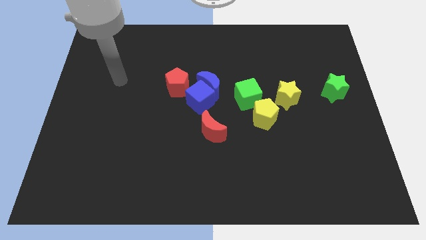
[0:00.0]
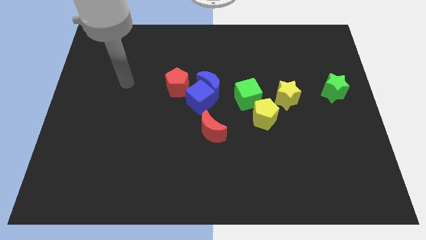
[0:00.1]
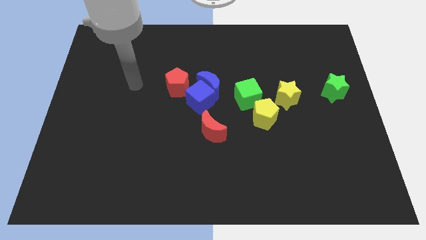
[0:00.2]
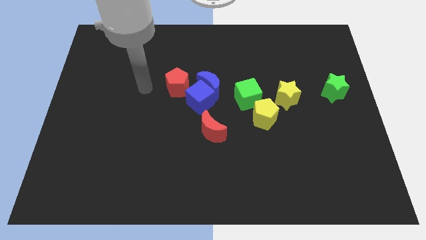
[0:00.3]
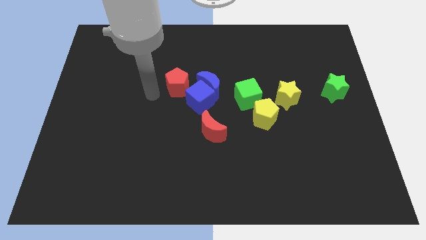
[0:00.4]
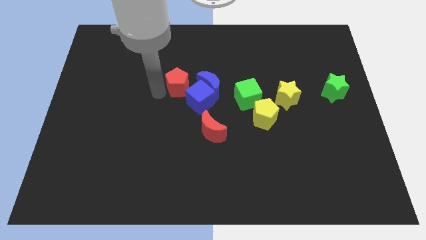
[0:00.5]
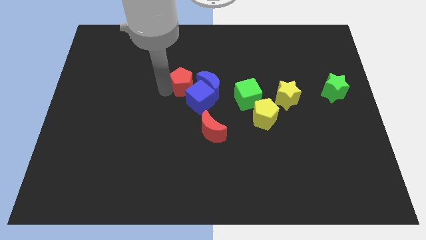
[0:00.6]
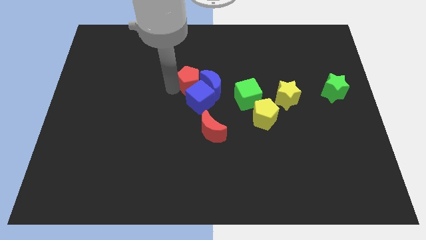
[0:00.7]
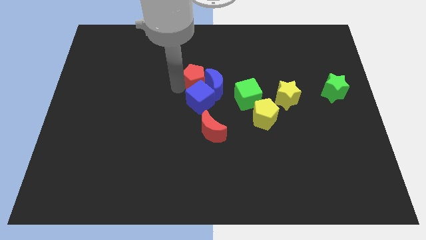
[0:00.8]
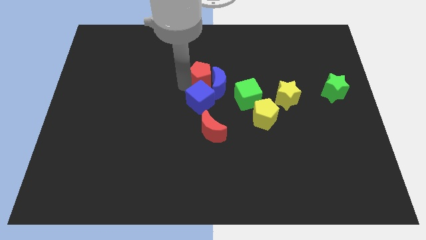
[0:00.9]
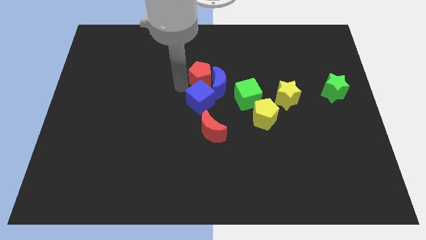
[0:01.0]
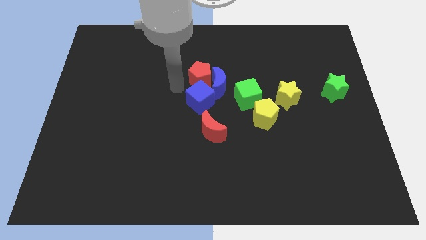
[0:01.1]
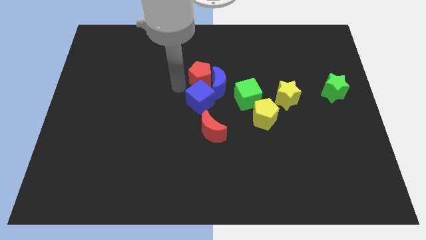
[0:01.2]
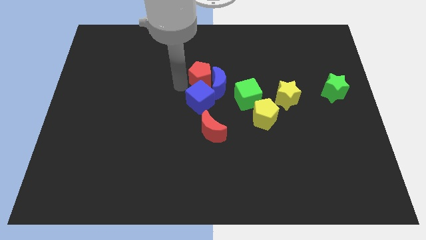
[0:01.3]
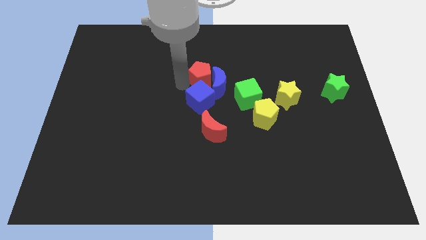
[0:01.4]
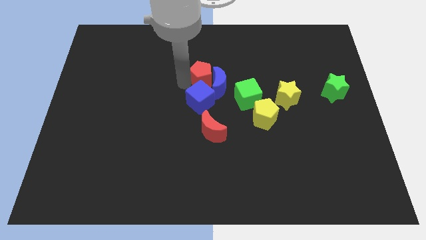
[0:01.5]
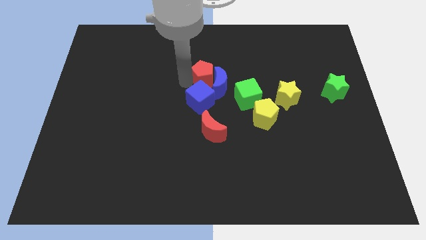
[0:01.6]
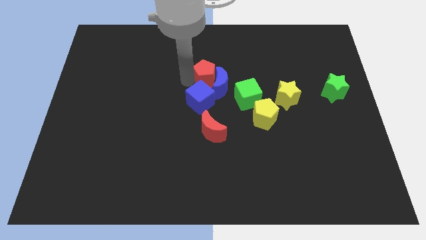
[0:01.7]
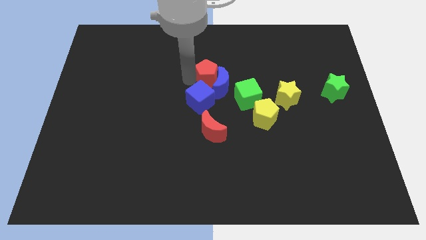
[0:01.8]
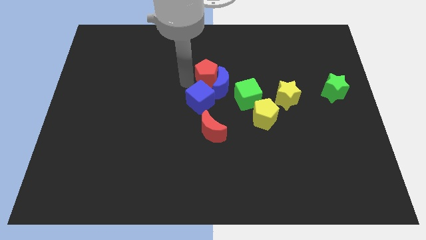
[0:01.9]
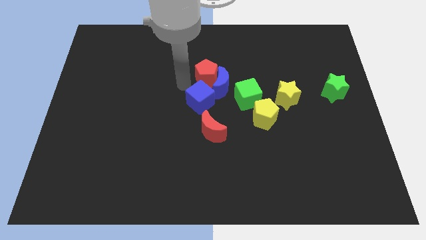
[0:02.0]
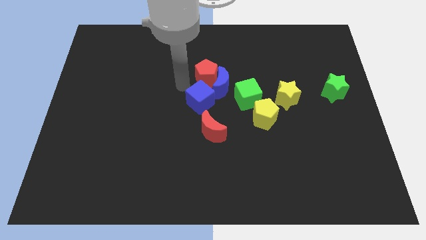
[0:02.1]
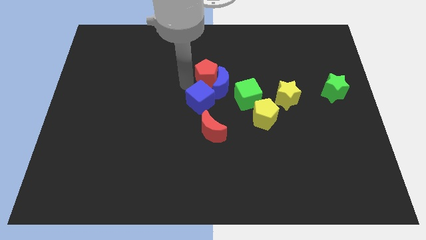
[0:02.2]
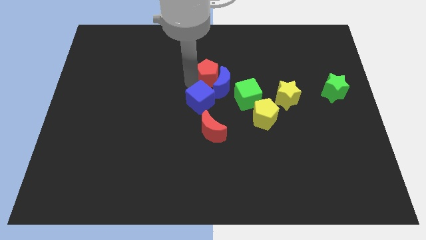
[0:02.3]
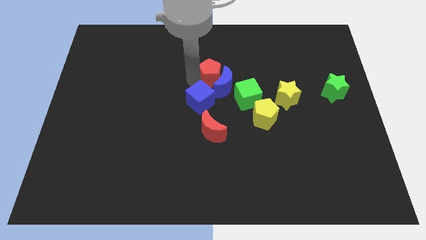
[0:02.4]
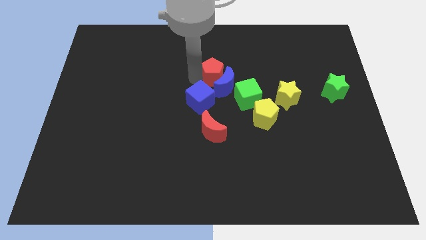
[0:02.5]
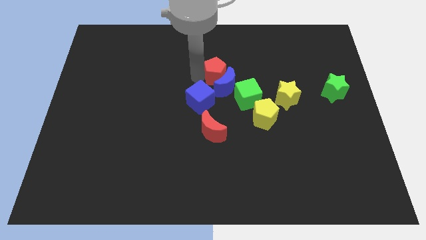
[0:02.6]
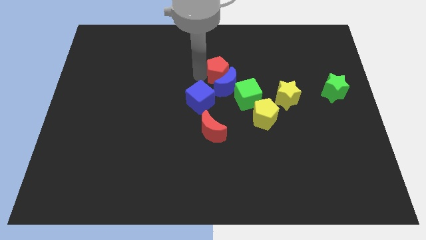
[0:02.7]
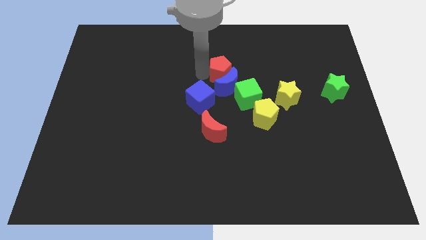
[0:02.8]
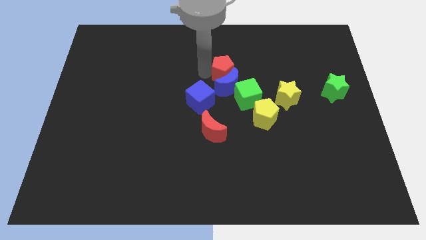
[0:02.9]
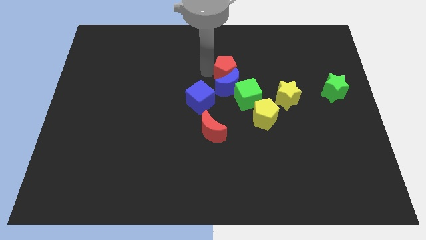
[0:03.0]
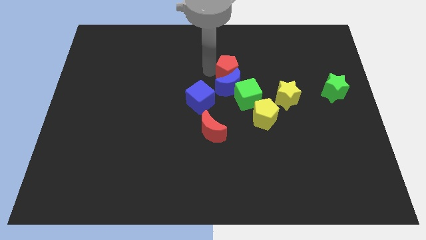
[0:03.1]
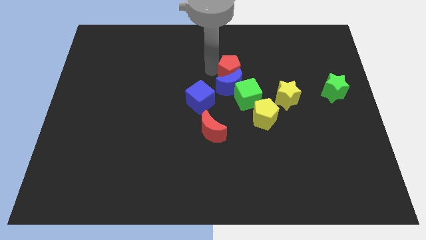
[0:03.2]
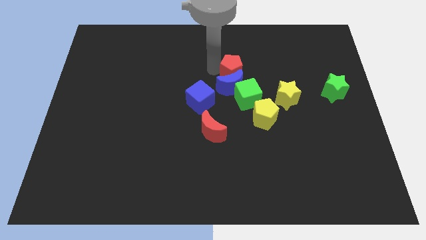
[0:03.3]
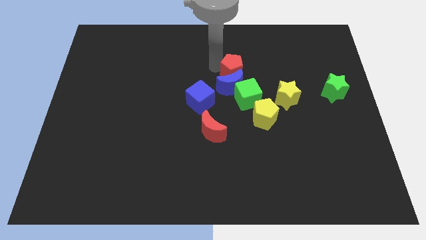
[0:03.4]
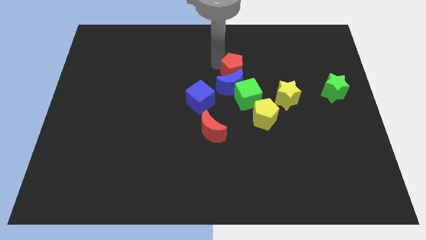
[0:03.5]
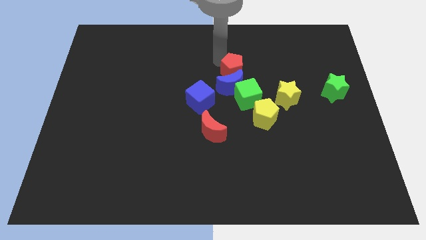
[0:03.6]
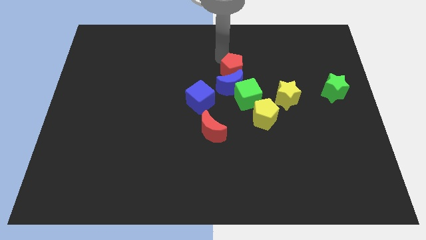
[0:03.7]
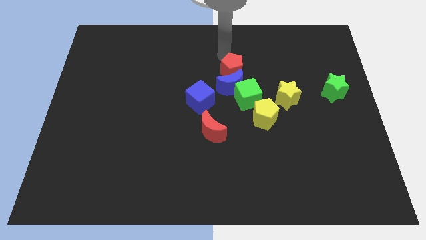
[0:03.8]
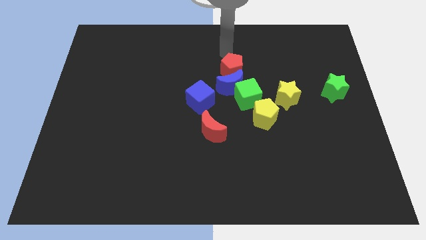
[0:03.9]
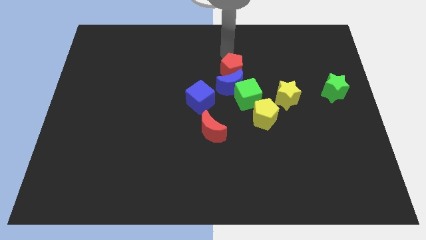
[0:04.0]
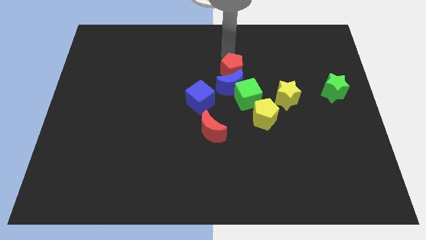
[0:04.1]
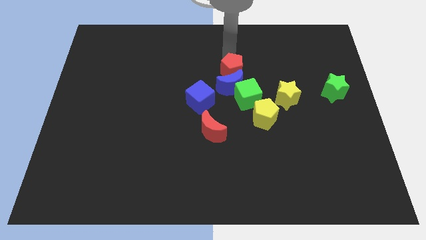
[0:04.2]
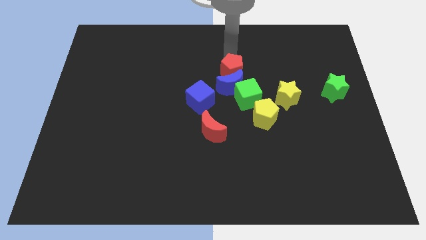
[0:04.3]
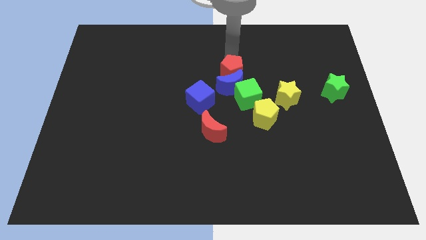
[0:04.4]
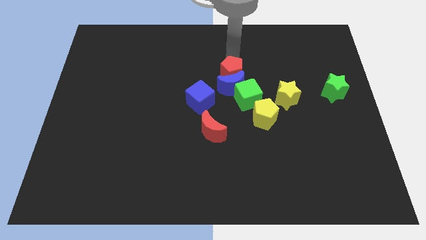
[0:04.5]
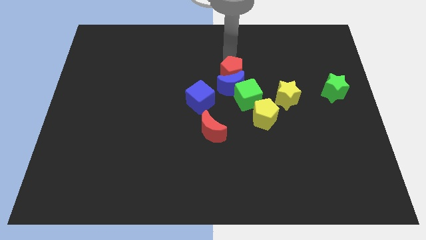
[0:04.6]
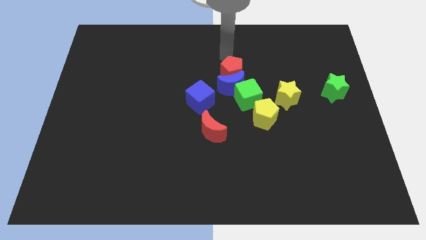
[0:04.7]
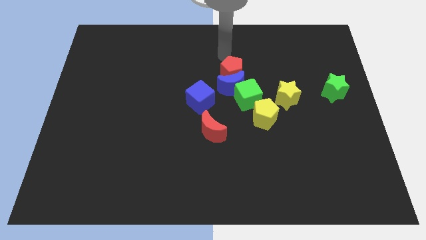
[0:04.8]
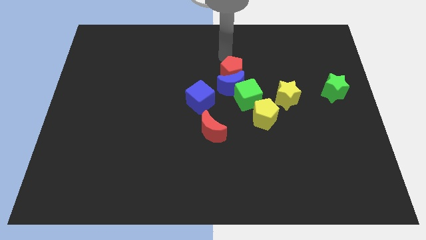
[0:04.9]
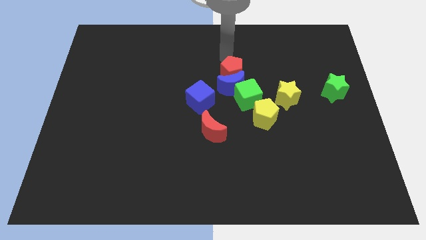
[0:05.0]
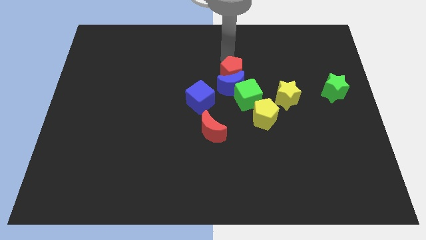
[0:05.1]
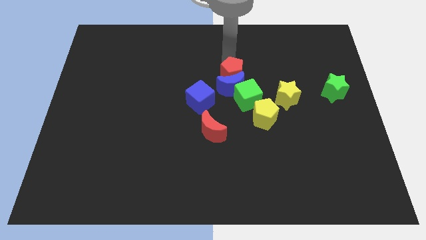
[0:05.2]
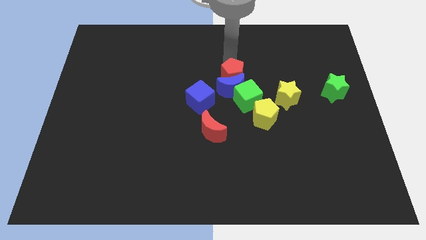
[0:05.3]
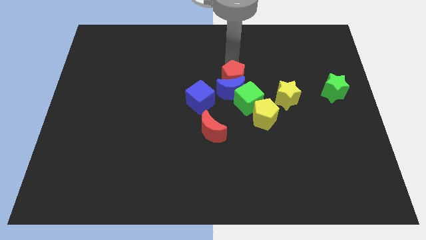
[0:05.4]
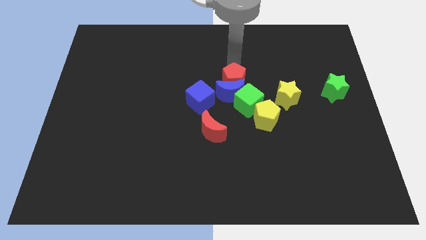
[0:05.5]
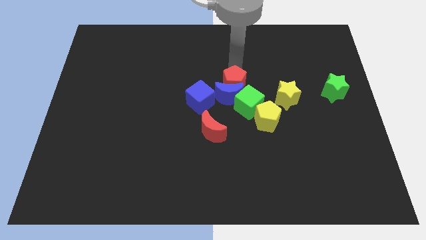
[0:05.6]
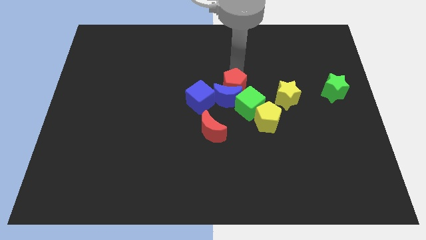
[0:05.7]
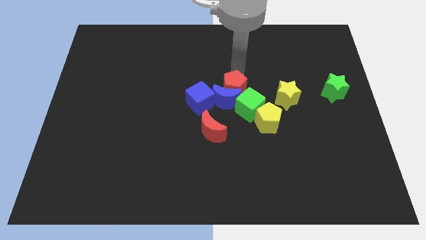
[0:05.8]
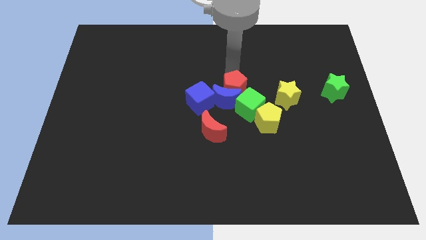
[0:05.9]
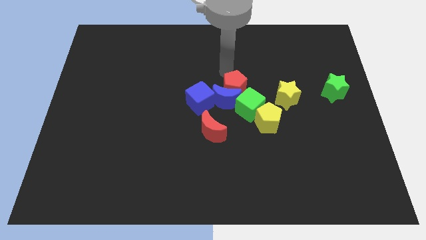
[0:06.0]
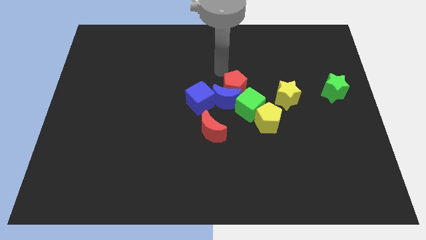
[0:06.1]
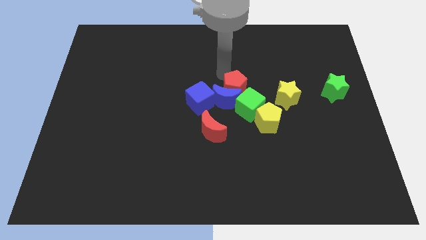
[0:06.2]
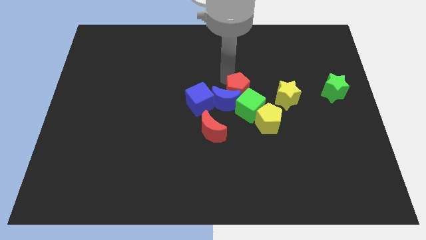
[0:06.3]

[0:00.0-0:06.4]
move the red pentagon towards the green cube

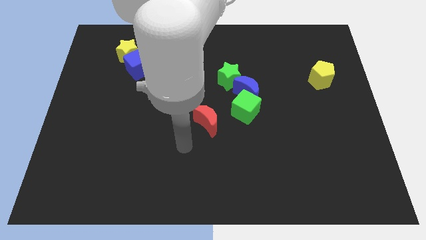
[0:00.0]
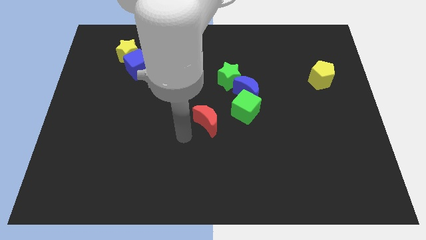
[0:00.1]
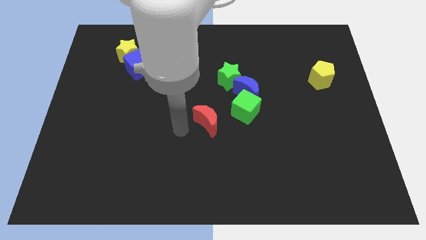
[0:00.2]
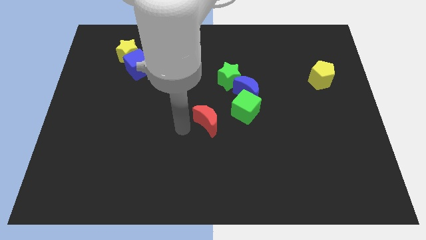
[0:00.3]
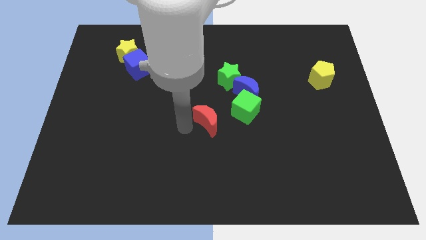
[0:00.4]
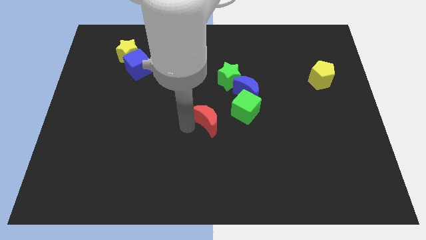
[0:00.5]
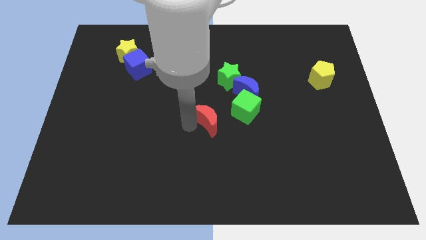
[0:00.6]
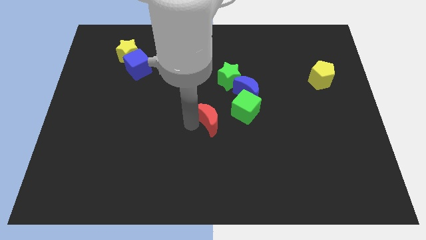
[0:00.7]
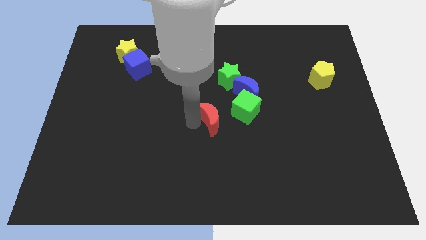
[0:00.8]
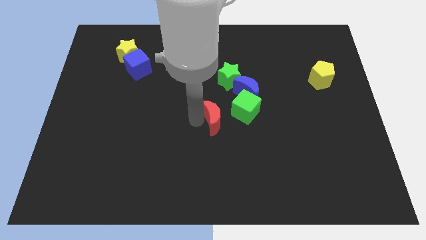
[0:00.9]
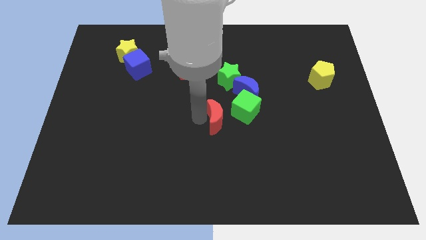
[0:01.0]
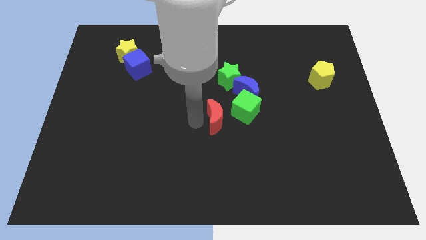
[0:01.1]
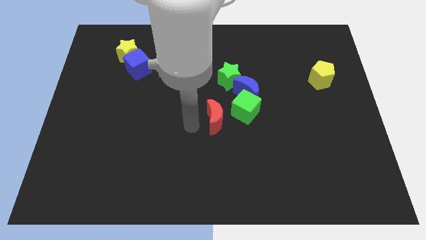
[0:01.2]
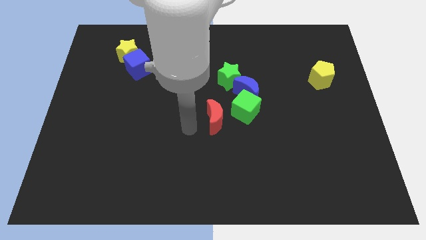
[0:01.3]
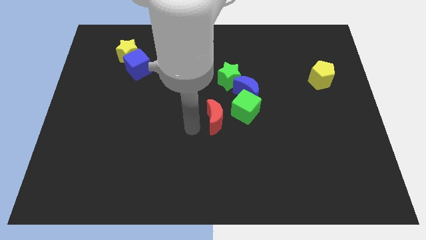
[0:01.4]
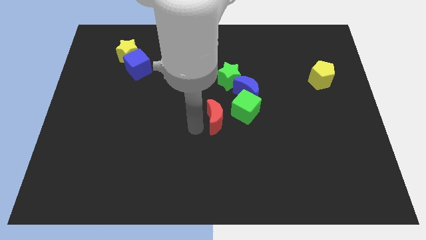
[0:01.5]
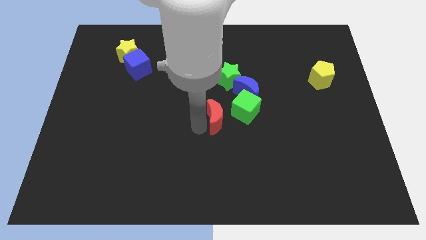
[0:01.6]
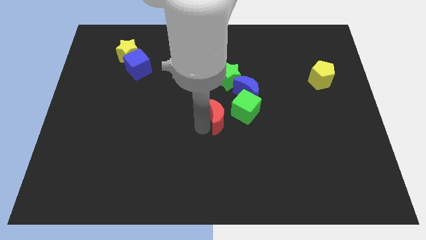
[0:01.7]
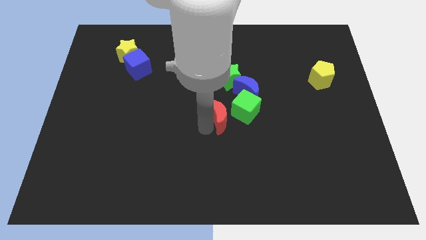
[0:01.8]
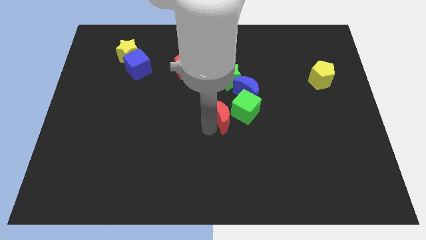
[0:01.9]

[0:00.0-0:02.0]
move the red moon next to the green cube
